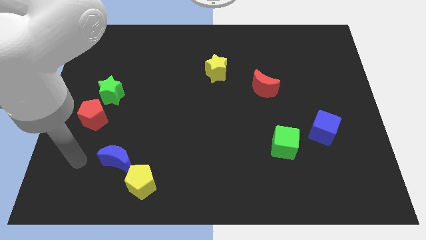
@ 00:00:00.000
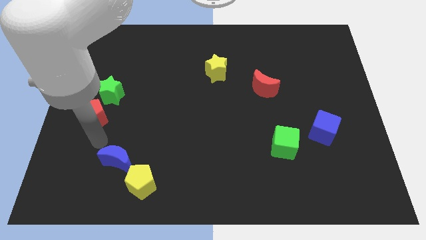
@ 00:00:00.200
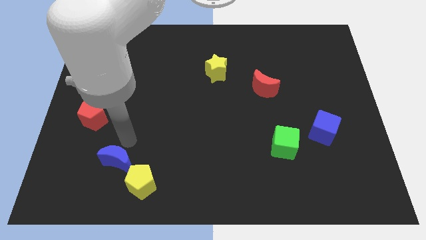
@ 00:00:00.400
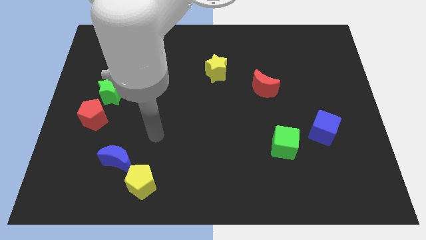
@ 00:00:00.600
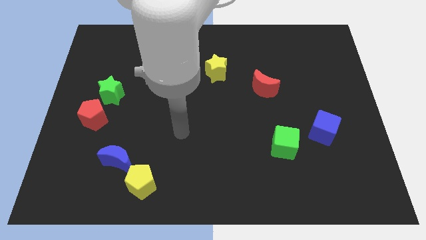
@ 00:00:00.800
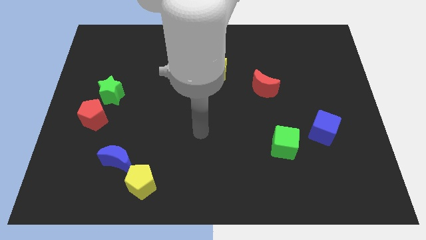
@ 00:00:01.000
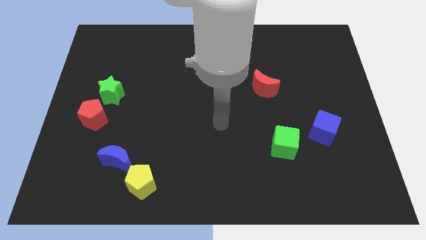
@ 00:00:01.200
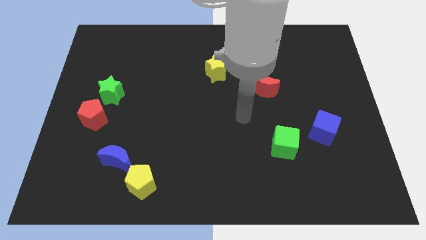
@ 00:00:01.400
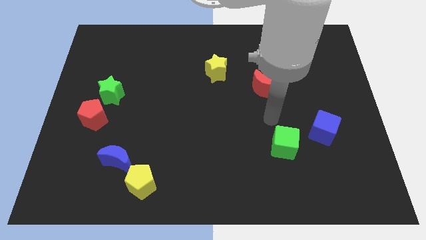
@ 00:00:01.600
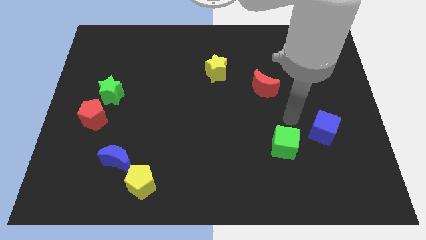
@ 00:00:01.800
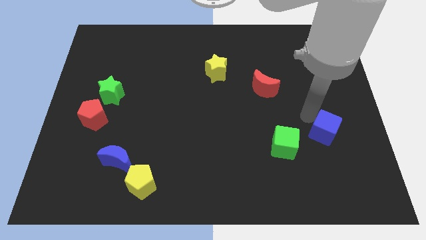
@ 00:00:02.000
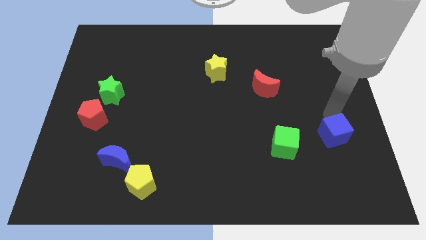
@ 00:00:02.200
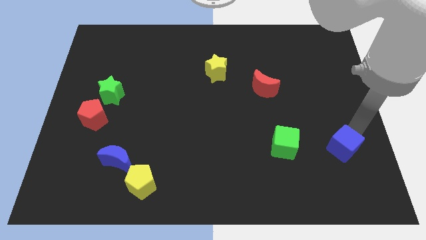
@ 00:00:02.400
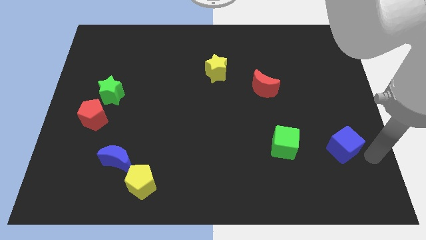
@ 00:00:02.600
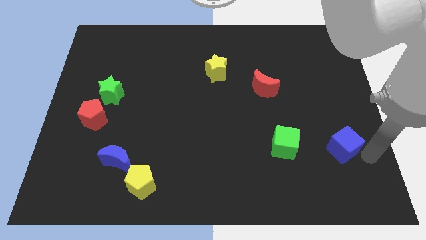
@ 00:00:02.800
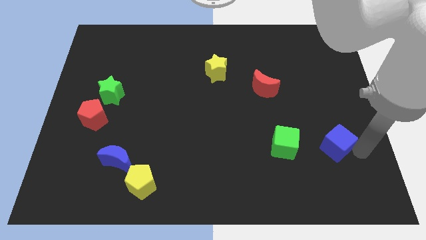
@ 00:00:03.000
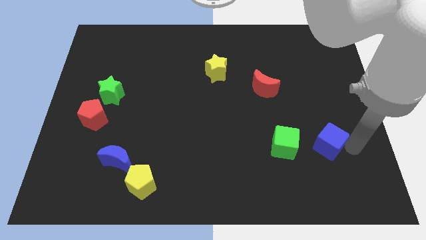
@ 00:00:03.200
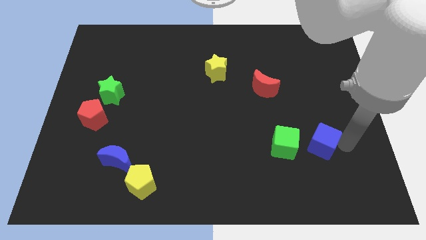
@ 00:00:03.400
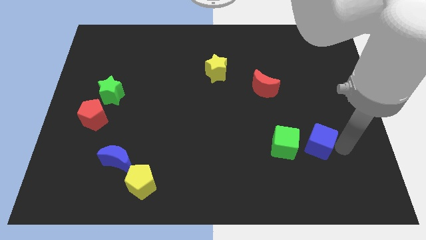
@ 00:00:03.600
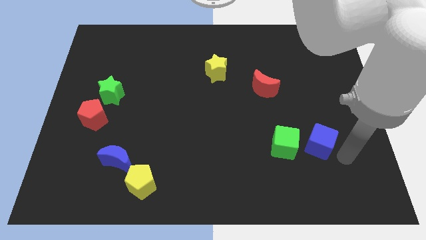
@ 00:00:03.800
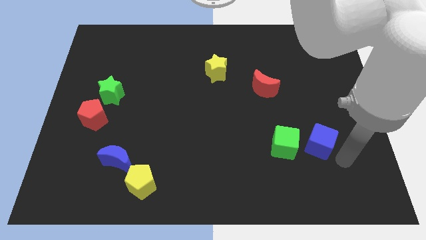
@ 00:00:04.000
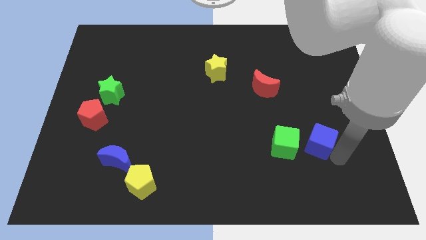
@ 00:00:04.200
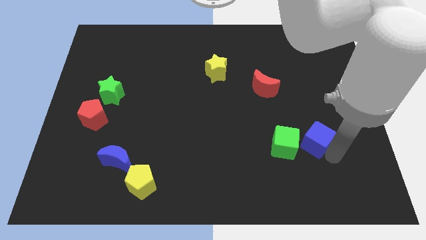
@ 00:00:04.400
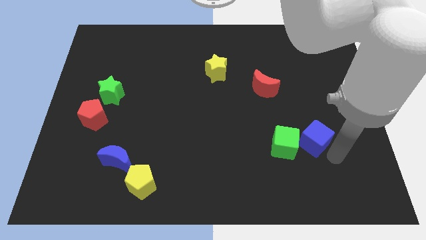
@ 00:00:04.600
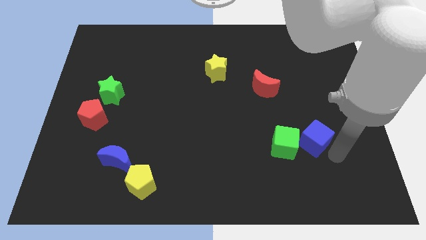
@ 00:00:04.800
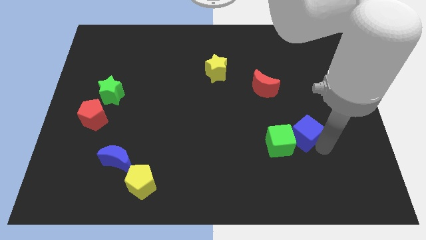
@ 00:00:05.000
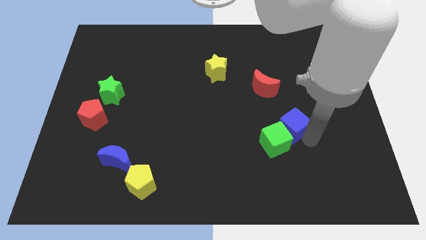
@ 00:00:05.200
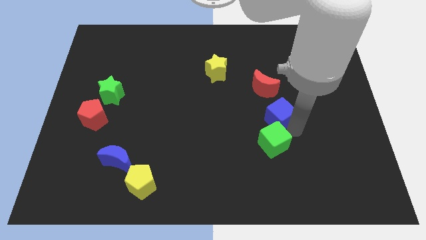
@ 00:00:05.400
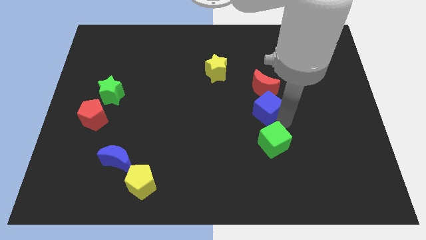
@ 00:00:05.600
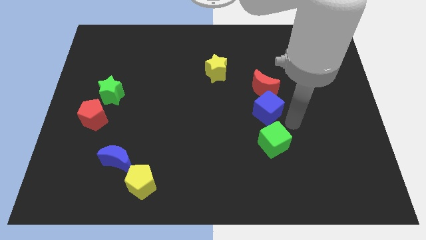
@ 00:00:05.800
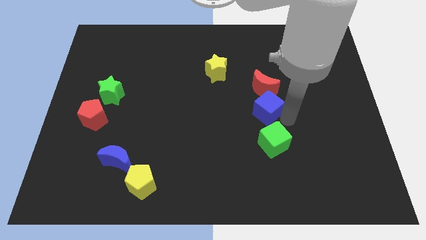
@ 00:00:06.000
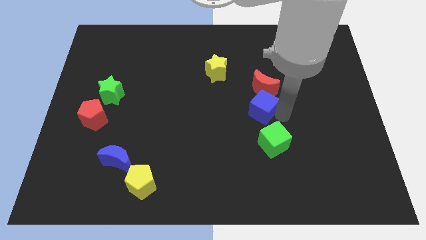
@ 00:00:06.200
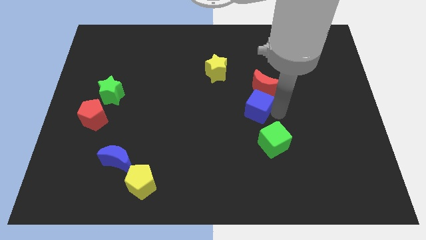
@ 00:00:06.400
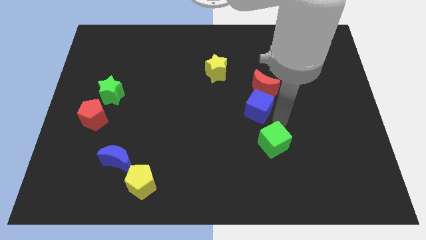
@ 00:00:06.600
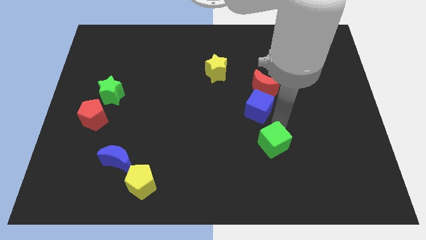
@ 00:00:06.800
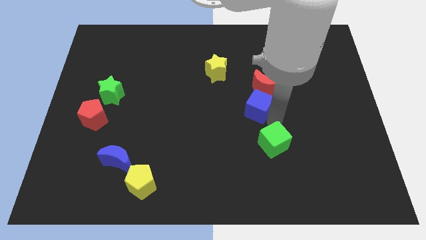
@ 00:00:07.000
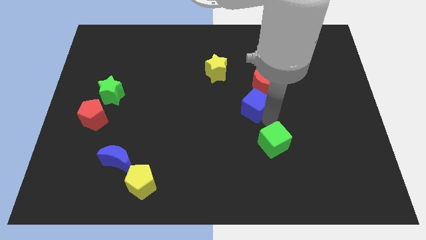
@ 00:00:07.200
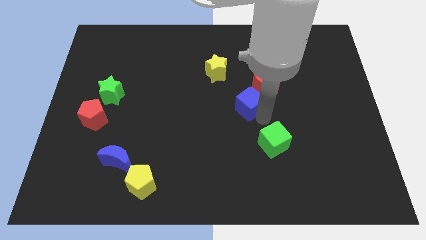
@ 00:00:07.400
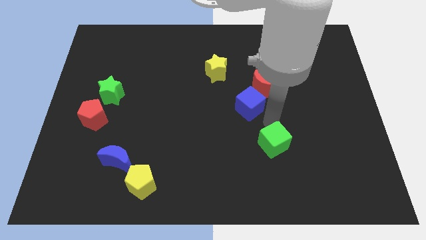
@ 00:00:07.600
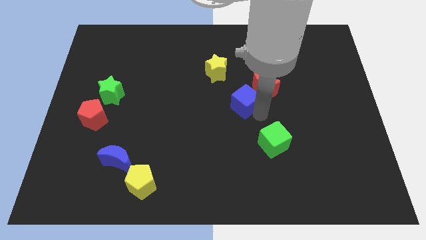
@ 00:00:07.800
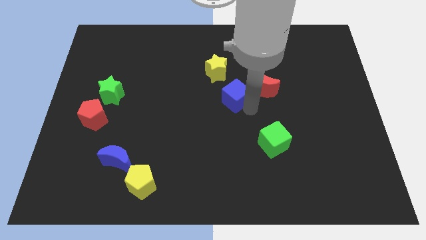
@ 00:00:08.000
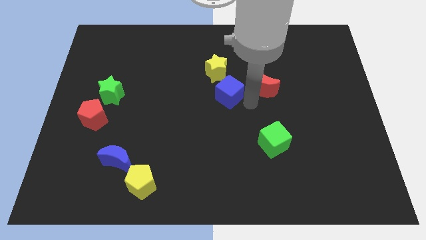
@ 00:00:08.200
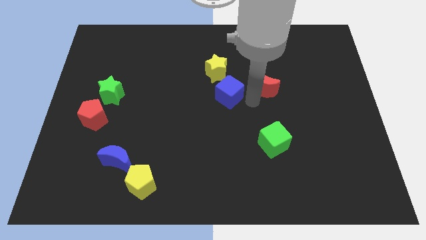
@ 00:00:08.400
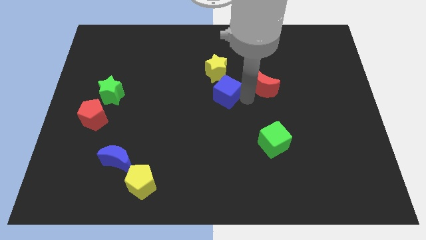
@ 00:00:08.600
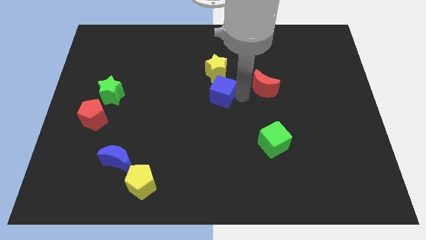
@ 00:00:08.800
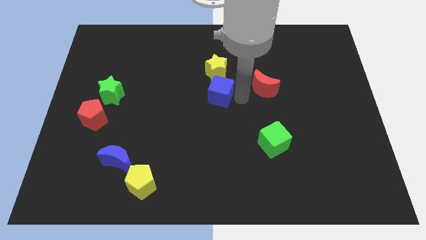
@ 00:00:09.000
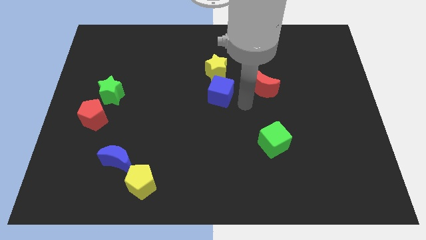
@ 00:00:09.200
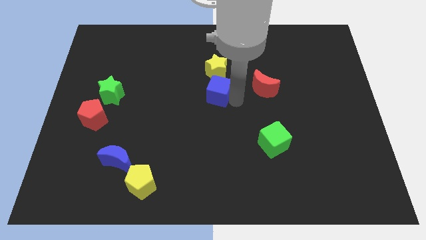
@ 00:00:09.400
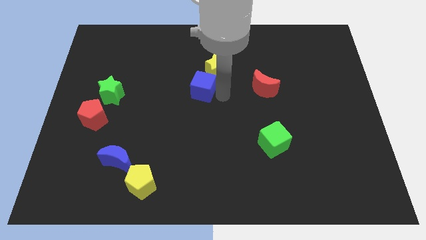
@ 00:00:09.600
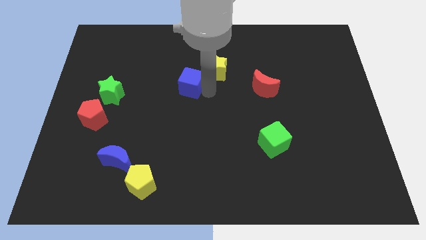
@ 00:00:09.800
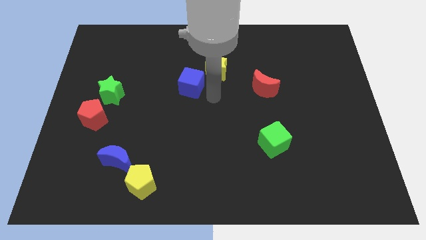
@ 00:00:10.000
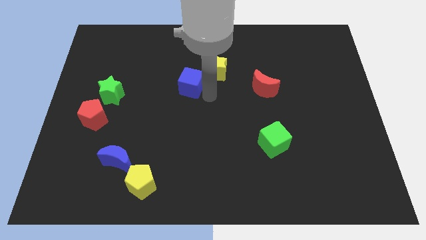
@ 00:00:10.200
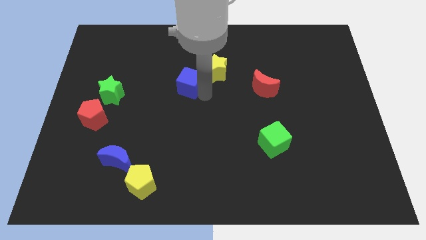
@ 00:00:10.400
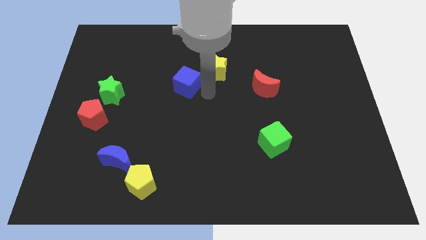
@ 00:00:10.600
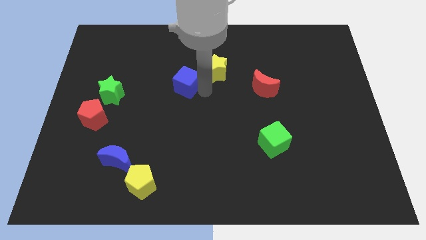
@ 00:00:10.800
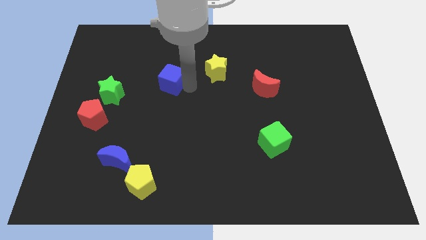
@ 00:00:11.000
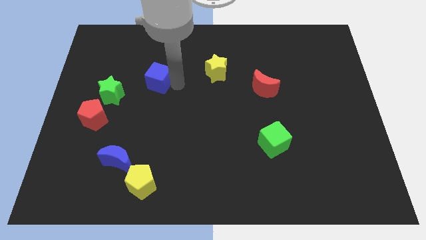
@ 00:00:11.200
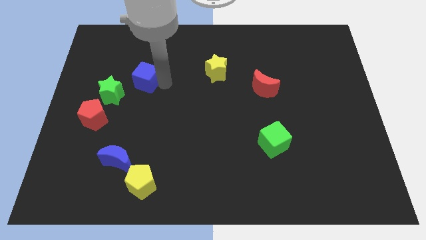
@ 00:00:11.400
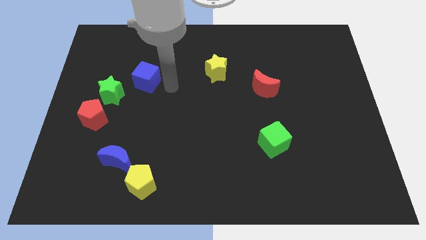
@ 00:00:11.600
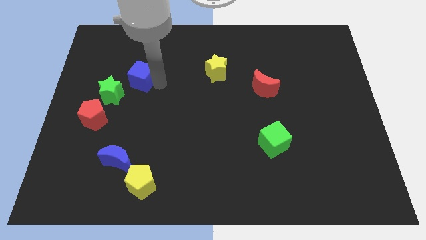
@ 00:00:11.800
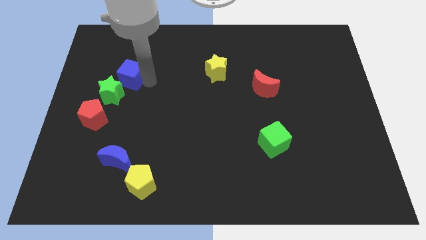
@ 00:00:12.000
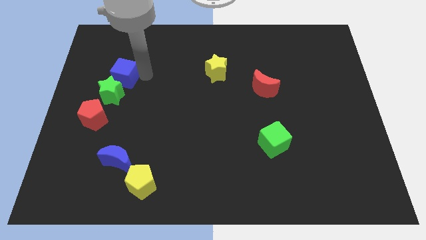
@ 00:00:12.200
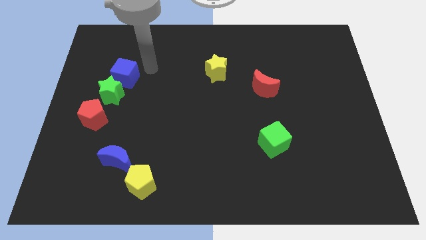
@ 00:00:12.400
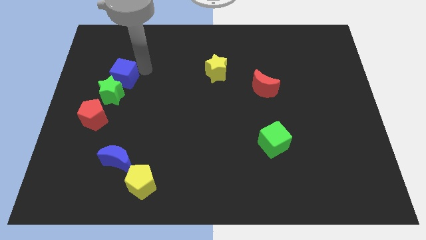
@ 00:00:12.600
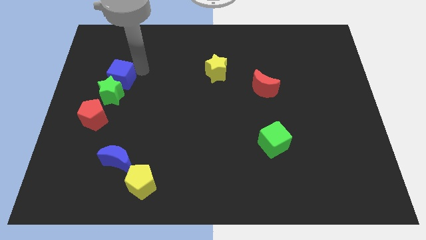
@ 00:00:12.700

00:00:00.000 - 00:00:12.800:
slide the blue cube to the top of the red pentagon
